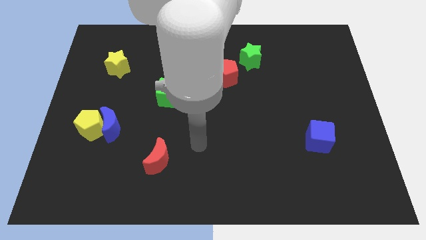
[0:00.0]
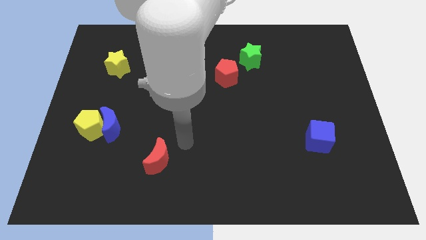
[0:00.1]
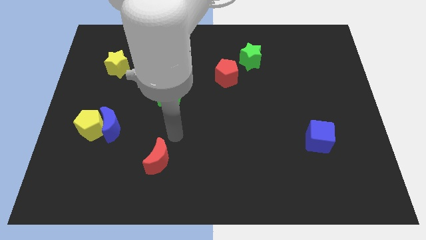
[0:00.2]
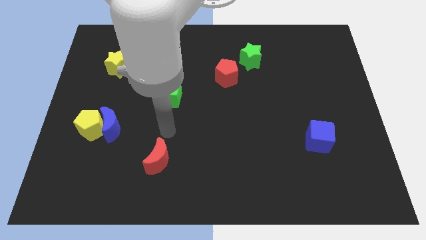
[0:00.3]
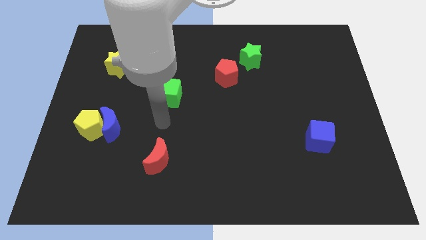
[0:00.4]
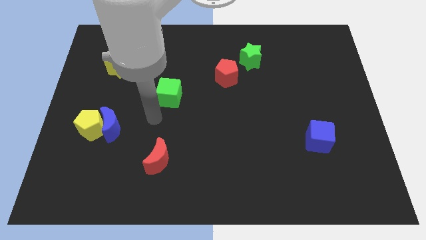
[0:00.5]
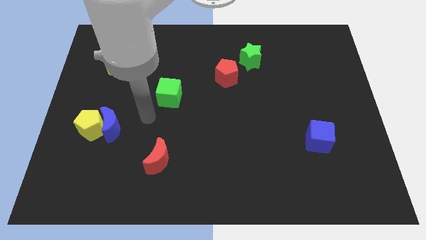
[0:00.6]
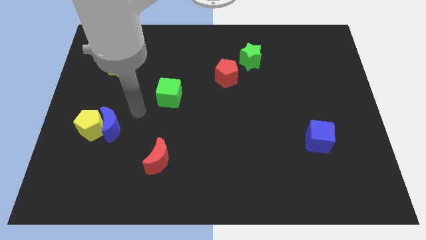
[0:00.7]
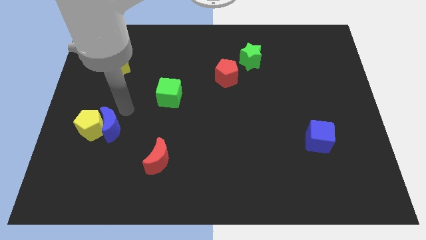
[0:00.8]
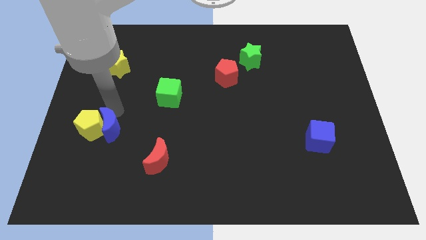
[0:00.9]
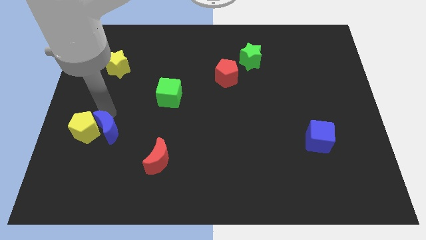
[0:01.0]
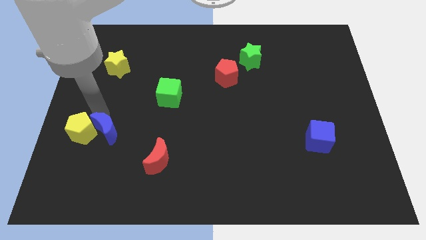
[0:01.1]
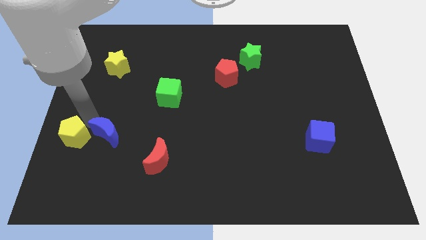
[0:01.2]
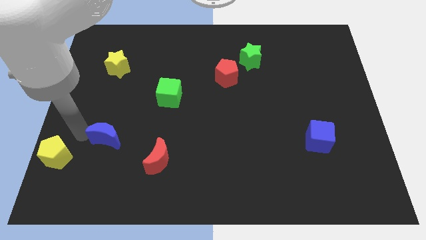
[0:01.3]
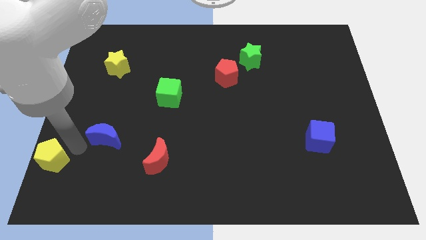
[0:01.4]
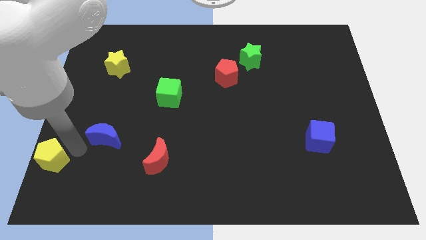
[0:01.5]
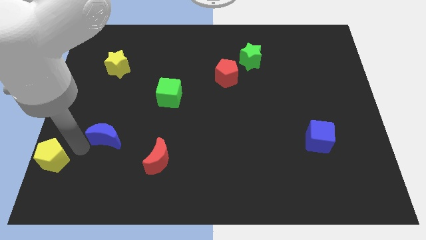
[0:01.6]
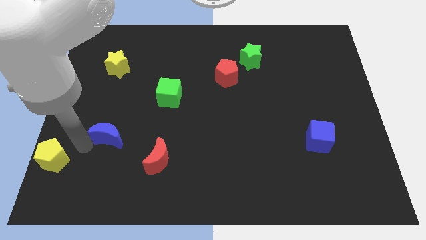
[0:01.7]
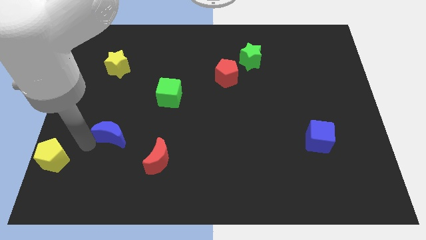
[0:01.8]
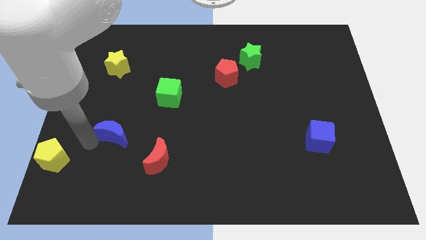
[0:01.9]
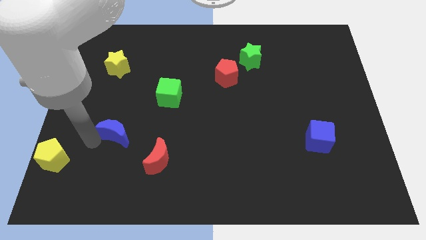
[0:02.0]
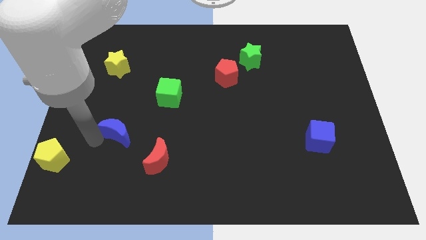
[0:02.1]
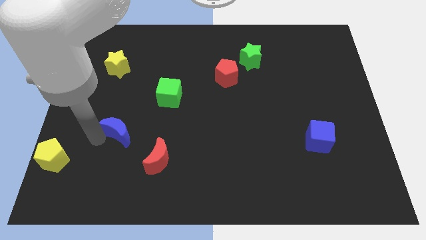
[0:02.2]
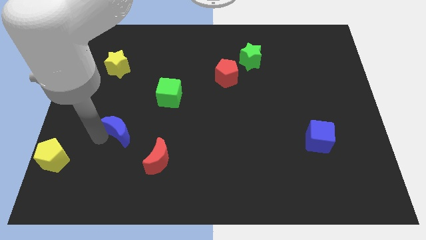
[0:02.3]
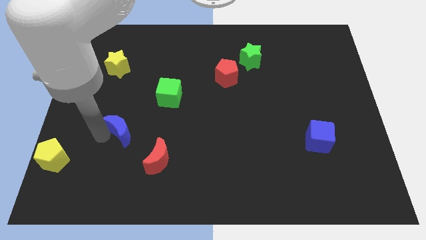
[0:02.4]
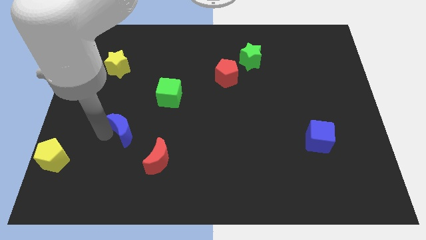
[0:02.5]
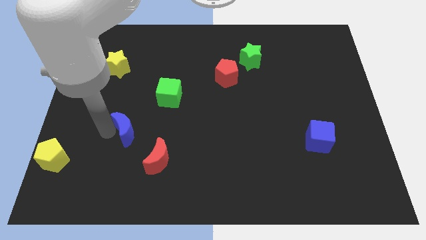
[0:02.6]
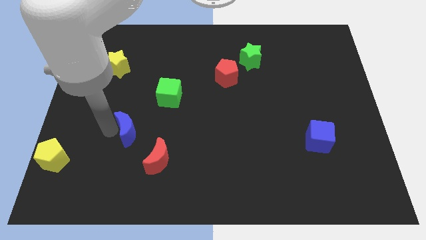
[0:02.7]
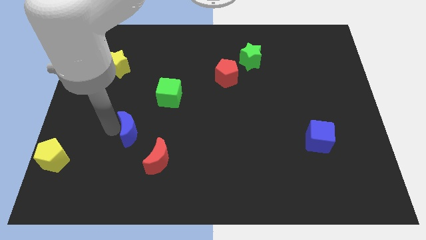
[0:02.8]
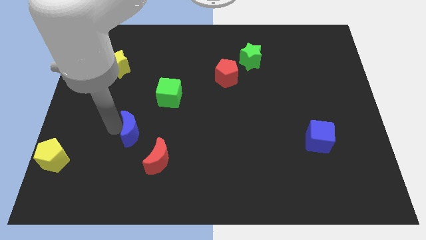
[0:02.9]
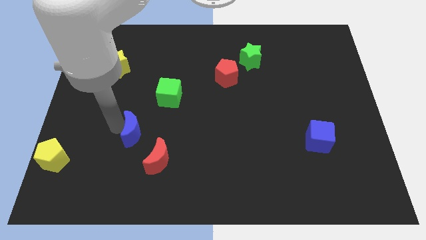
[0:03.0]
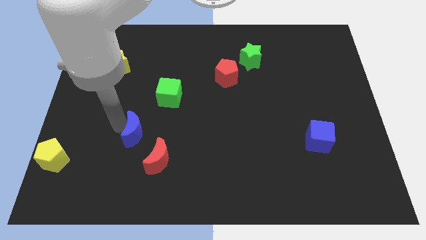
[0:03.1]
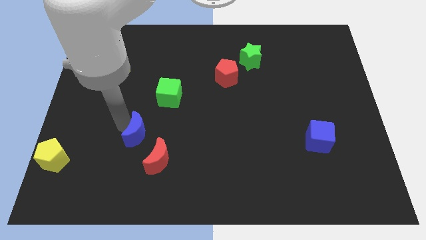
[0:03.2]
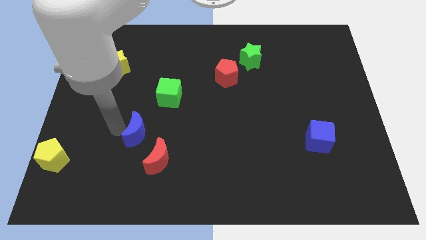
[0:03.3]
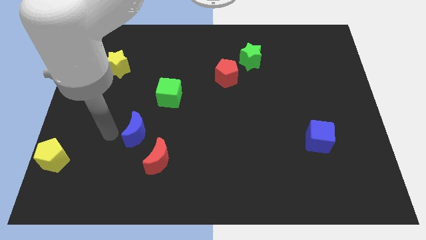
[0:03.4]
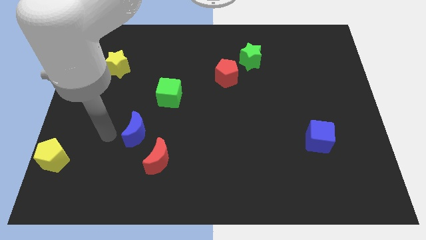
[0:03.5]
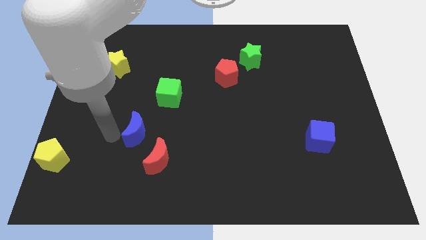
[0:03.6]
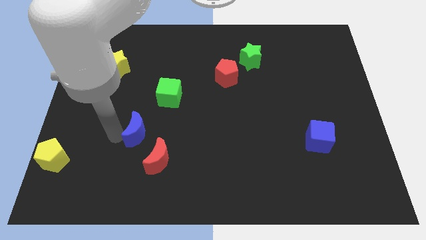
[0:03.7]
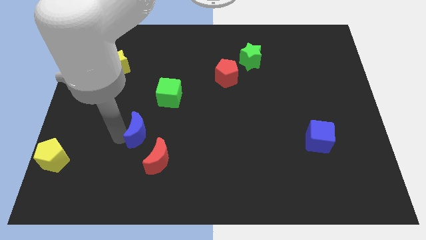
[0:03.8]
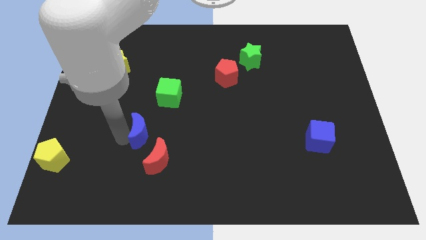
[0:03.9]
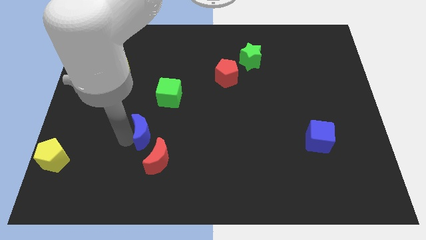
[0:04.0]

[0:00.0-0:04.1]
slide the blue moon a little right

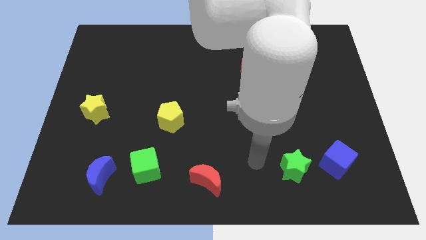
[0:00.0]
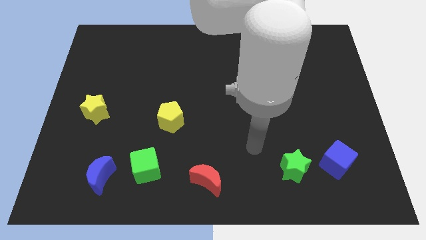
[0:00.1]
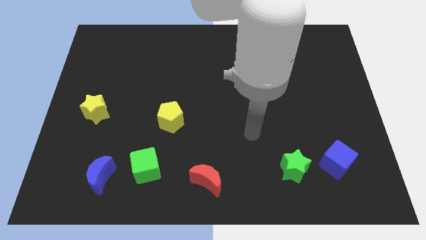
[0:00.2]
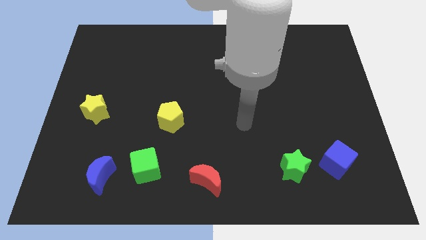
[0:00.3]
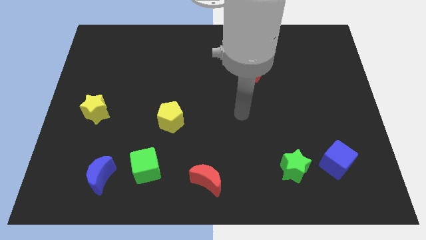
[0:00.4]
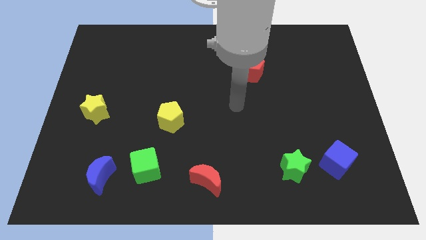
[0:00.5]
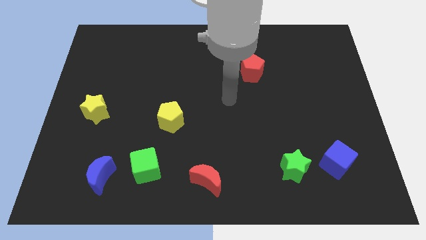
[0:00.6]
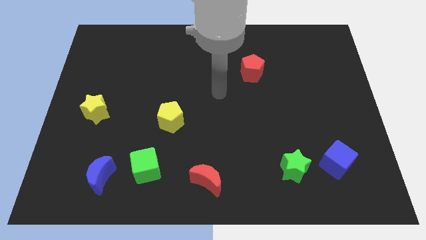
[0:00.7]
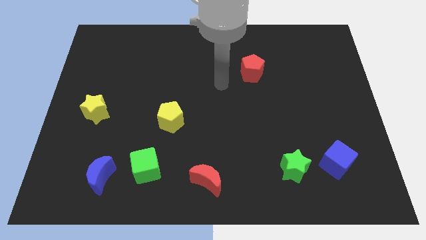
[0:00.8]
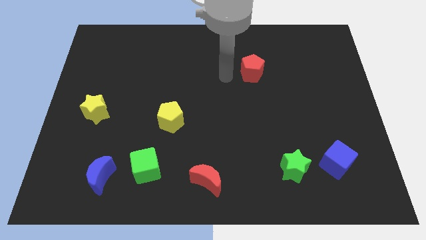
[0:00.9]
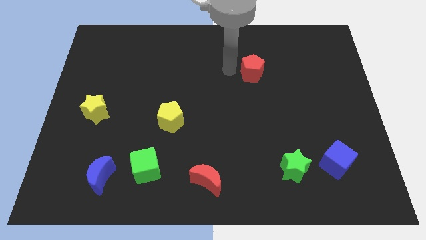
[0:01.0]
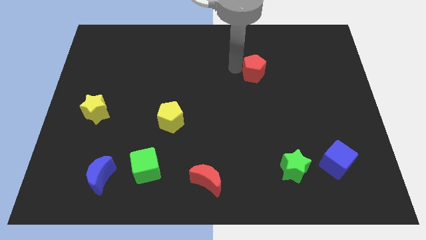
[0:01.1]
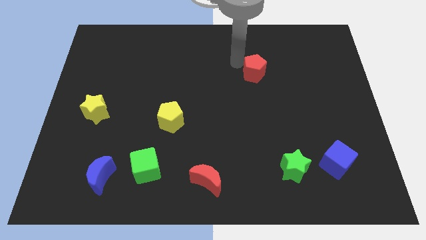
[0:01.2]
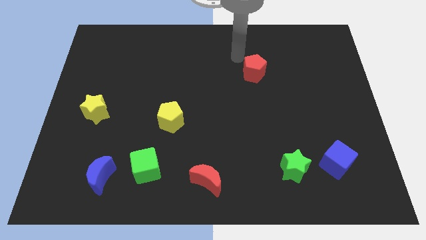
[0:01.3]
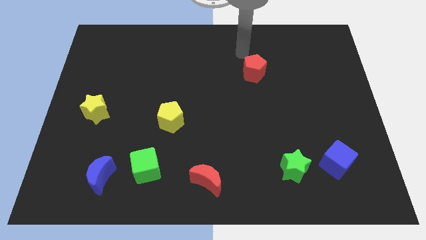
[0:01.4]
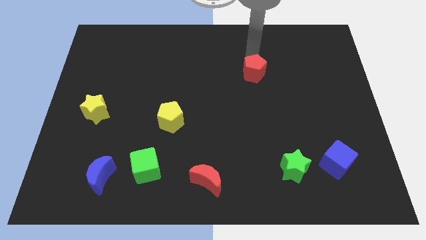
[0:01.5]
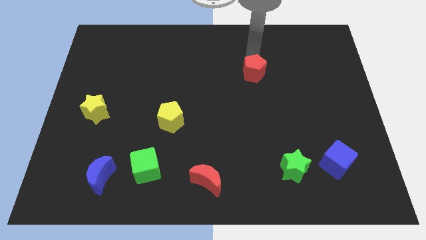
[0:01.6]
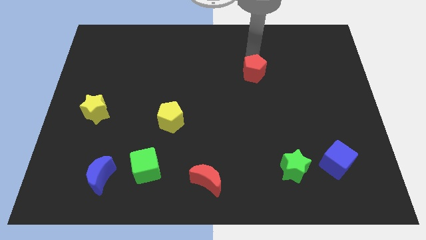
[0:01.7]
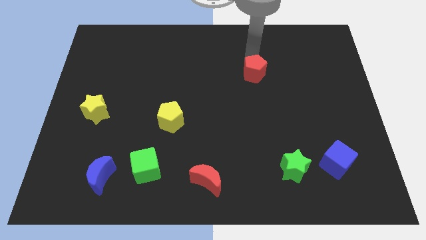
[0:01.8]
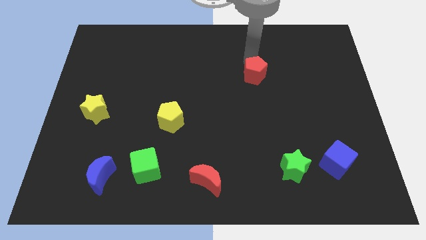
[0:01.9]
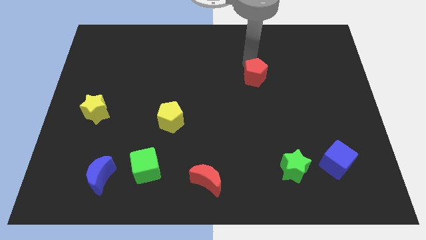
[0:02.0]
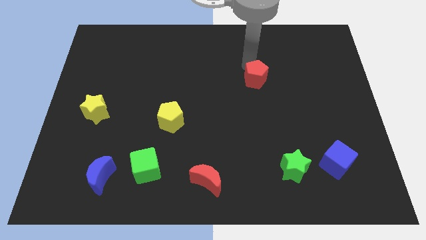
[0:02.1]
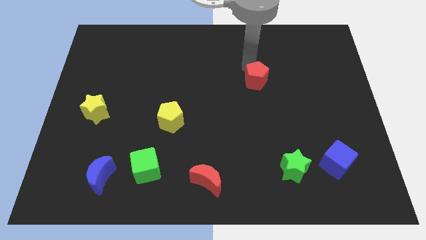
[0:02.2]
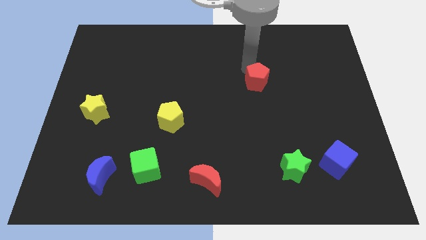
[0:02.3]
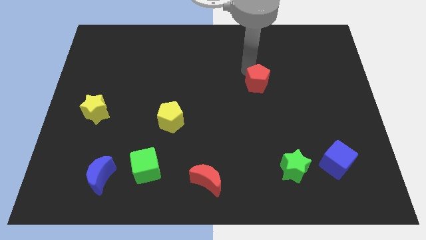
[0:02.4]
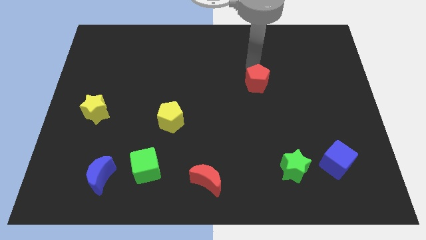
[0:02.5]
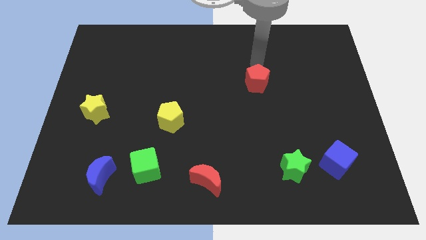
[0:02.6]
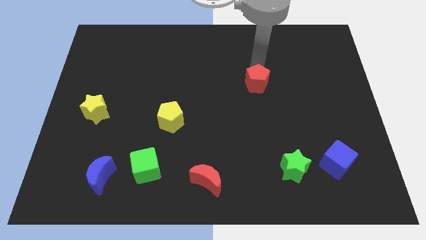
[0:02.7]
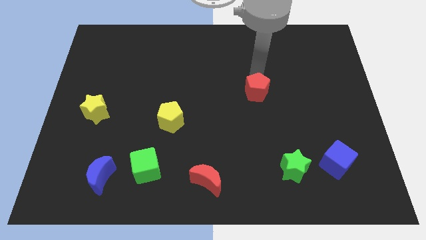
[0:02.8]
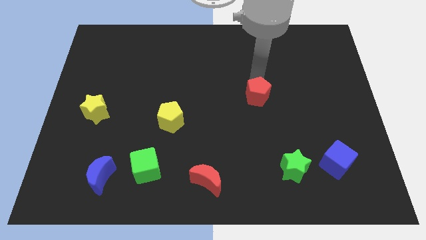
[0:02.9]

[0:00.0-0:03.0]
slightly push the red pentagon downwards

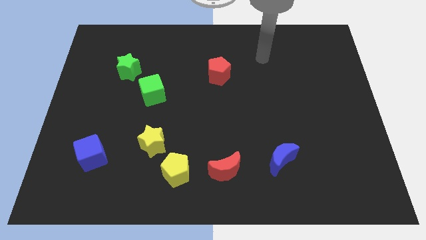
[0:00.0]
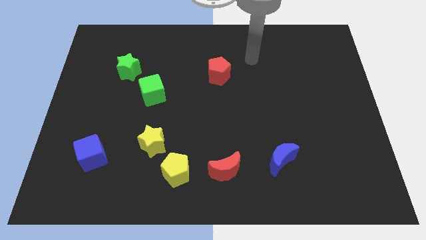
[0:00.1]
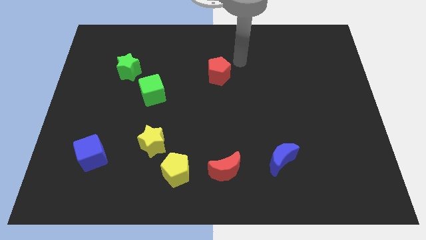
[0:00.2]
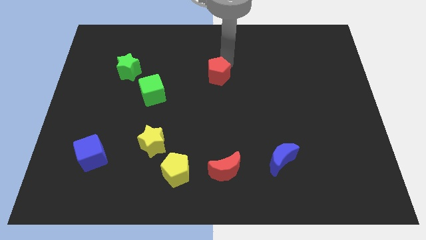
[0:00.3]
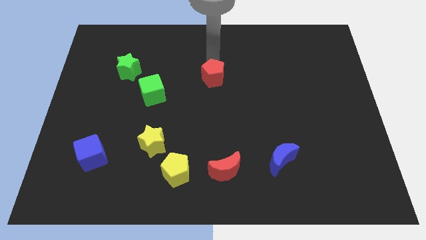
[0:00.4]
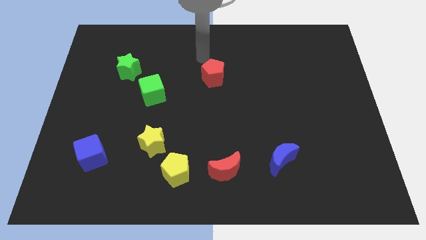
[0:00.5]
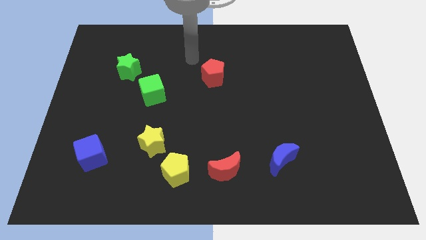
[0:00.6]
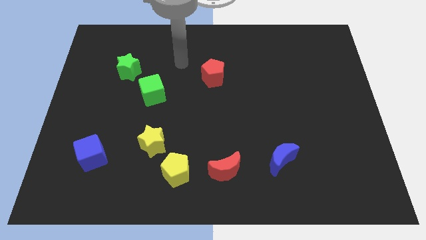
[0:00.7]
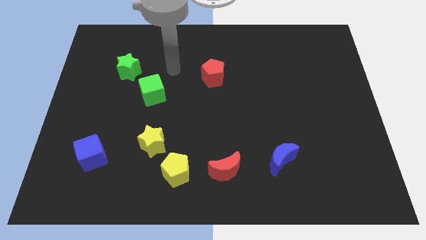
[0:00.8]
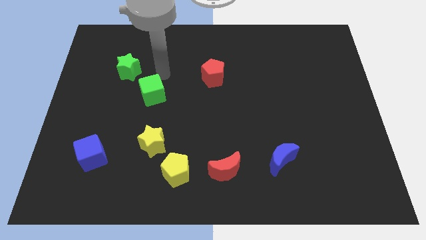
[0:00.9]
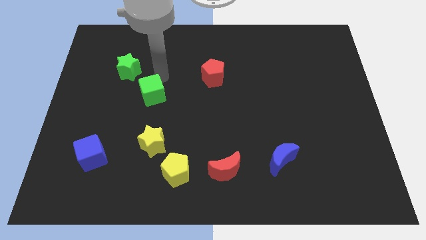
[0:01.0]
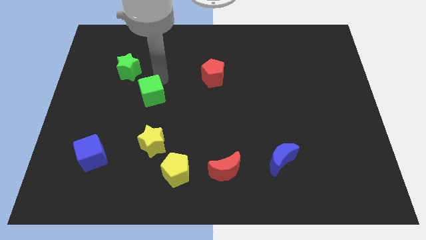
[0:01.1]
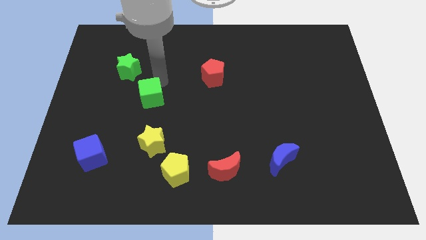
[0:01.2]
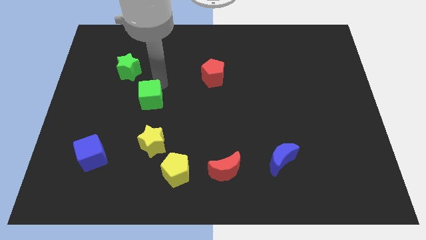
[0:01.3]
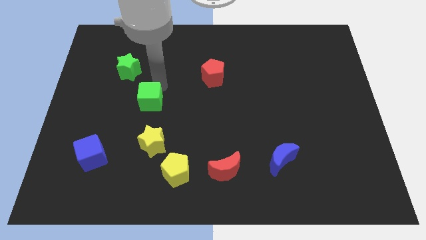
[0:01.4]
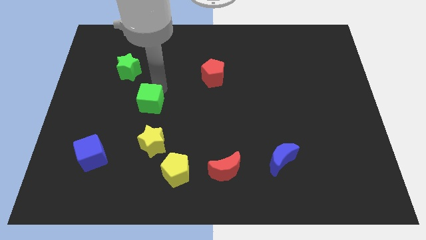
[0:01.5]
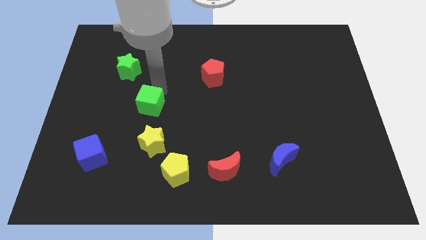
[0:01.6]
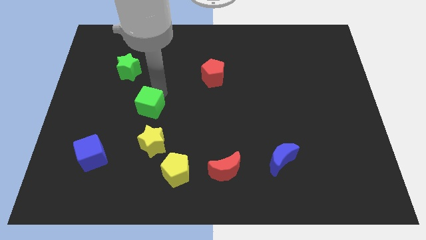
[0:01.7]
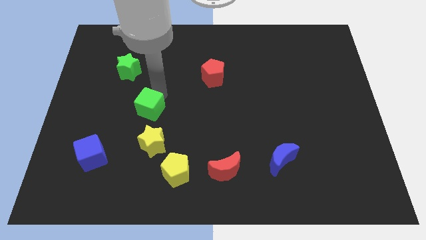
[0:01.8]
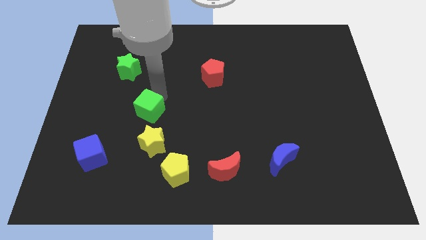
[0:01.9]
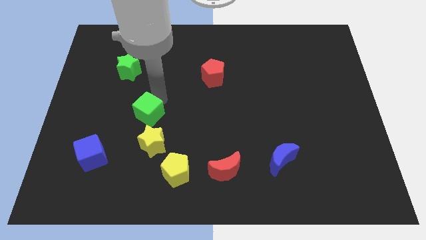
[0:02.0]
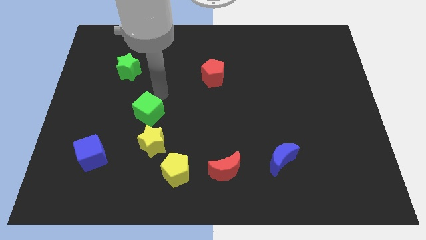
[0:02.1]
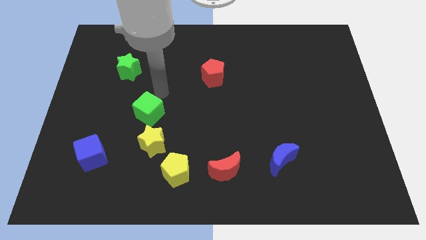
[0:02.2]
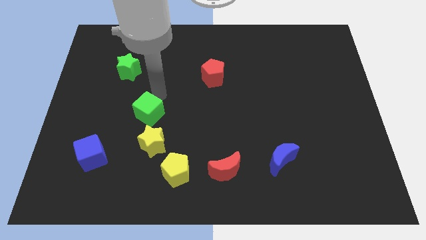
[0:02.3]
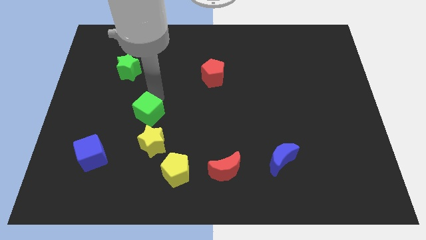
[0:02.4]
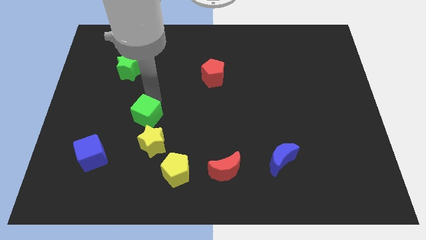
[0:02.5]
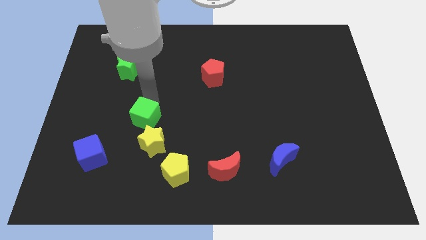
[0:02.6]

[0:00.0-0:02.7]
push the green cube downwards somewhat
